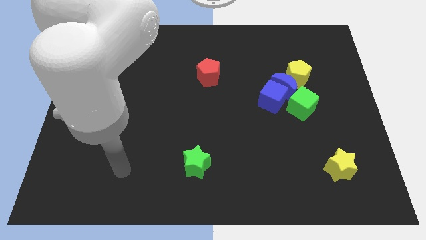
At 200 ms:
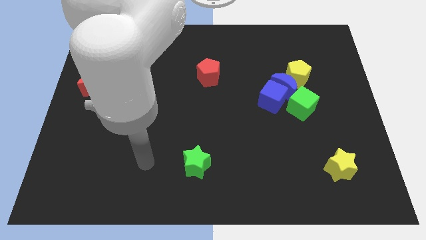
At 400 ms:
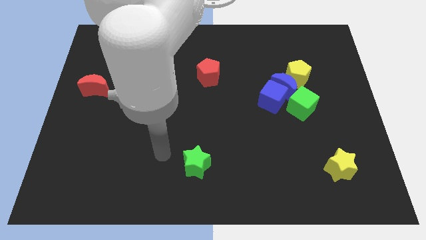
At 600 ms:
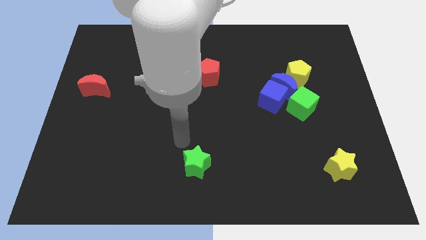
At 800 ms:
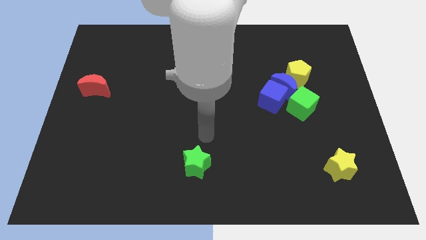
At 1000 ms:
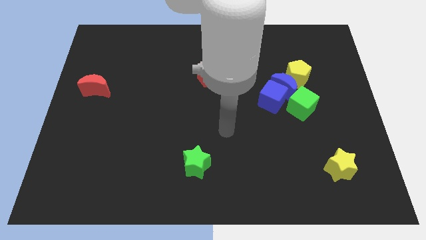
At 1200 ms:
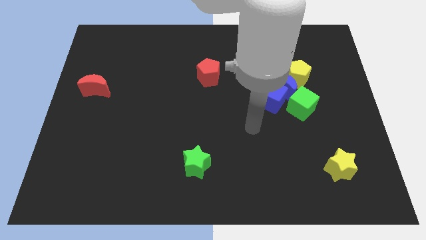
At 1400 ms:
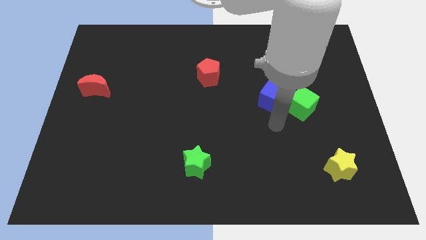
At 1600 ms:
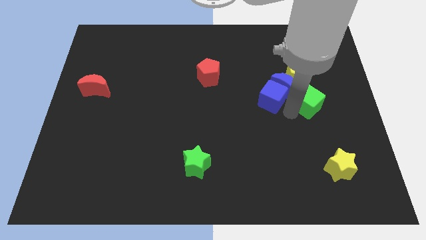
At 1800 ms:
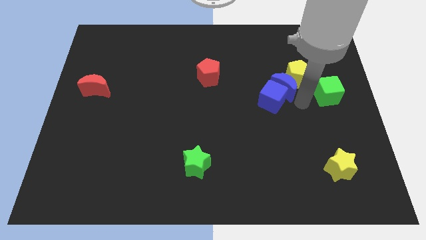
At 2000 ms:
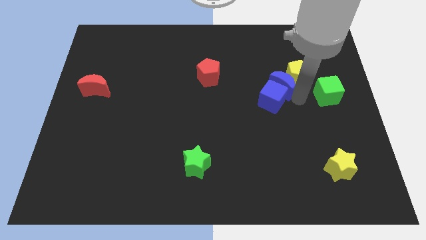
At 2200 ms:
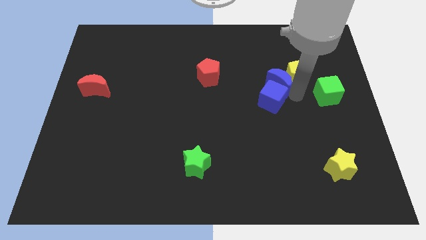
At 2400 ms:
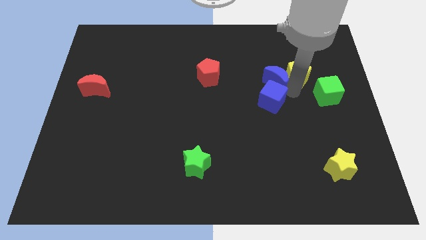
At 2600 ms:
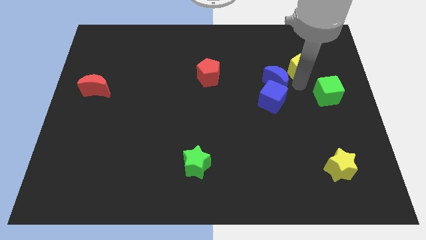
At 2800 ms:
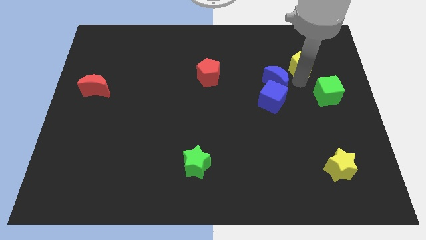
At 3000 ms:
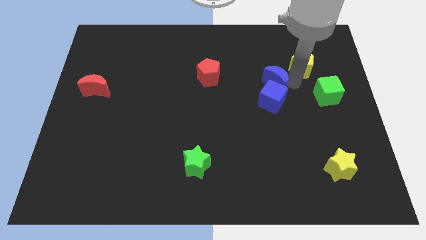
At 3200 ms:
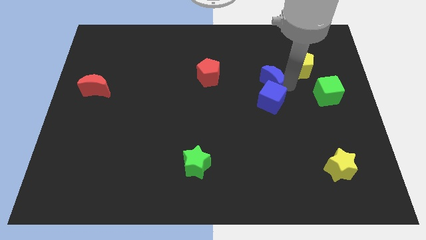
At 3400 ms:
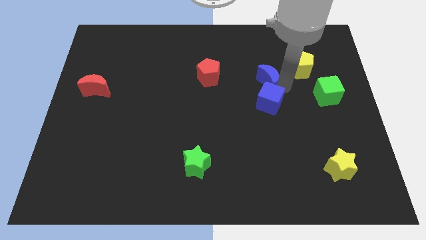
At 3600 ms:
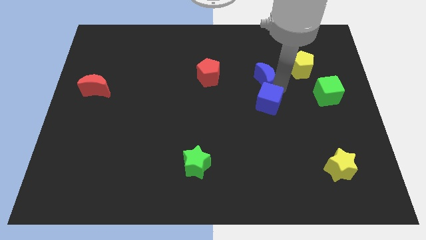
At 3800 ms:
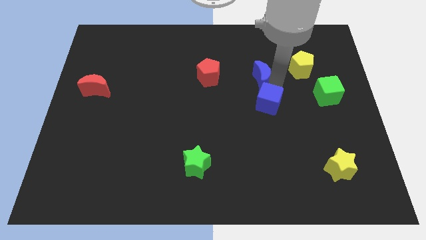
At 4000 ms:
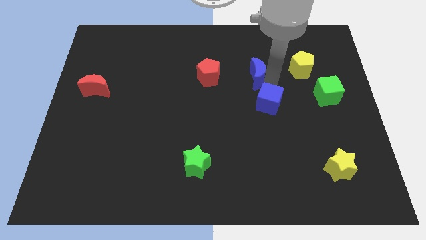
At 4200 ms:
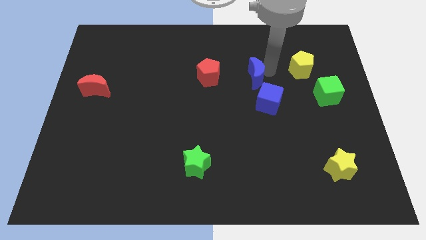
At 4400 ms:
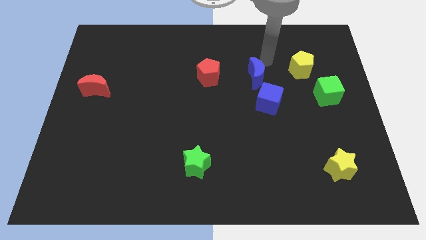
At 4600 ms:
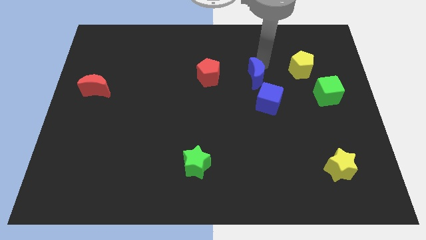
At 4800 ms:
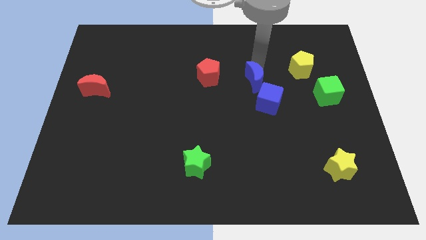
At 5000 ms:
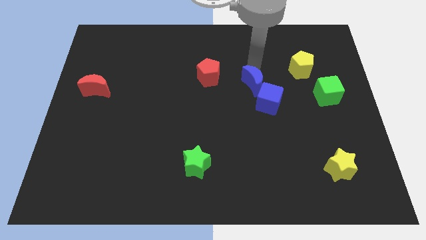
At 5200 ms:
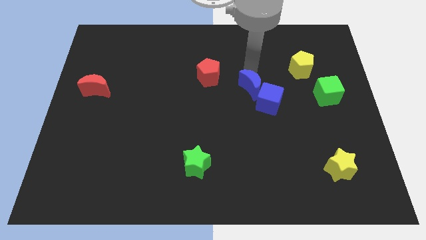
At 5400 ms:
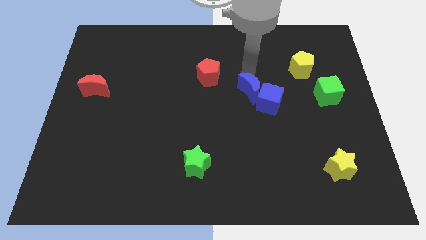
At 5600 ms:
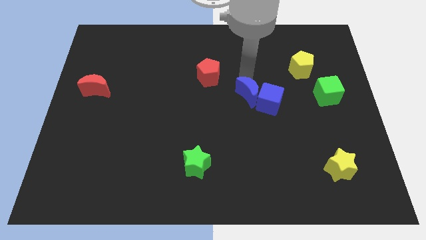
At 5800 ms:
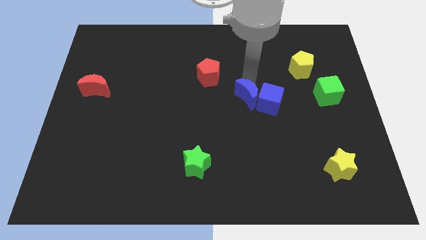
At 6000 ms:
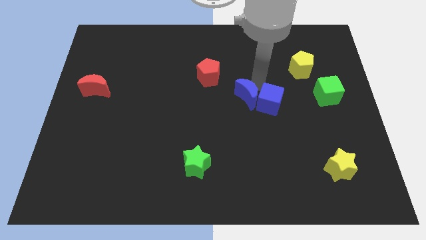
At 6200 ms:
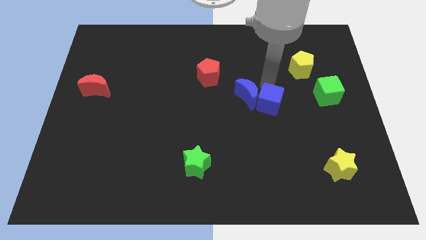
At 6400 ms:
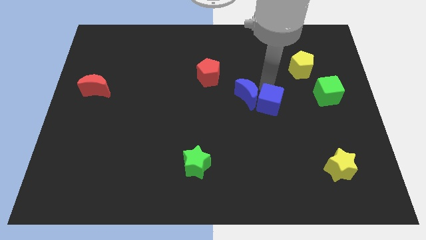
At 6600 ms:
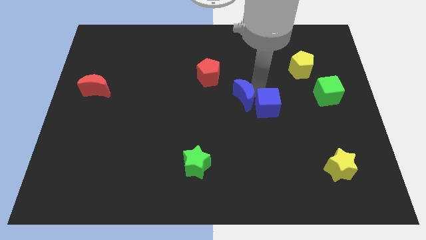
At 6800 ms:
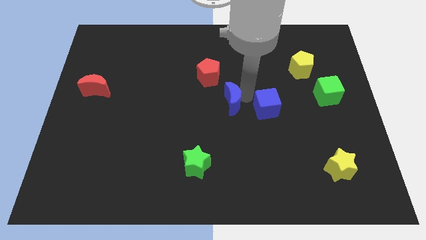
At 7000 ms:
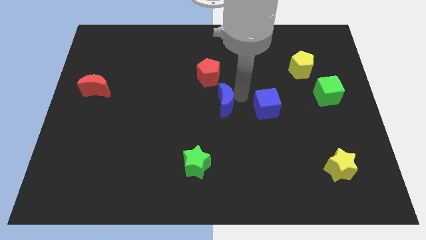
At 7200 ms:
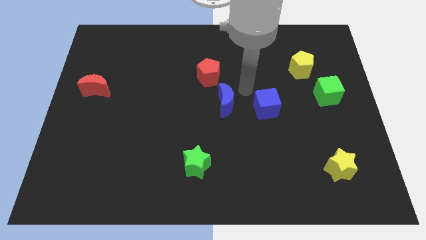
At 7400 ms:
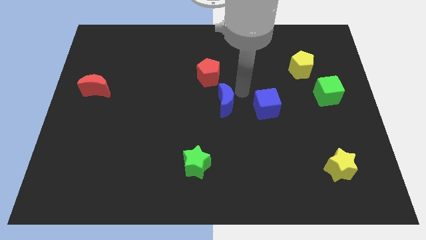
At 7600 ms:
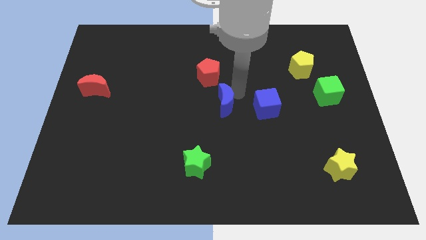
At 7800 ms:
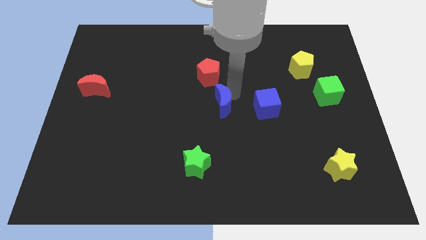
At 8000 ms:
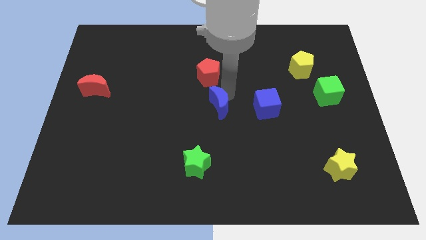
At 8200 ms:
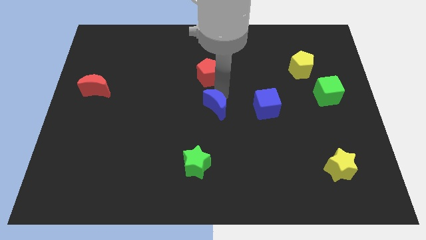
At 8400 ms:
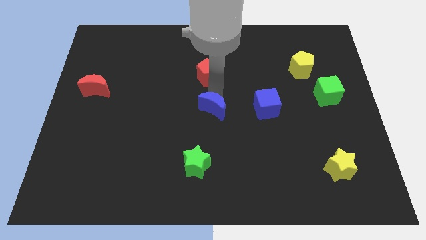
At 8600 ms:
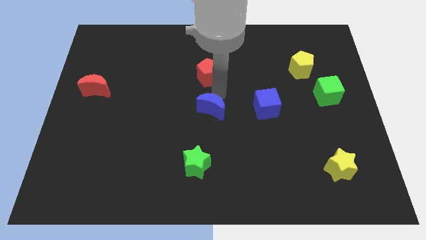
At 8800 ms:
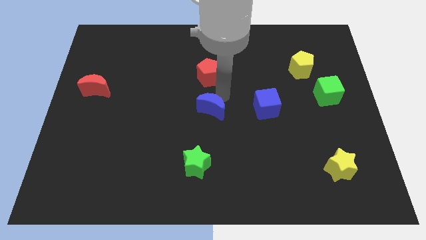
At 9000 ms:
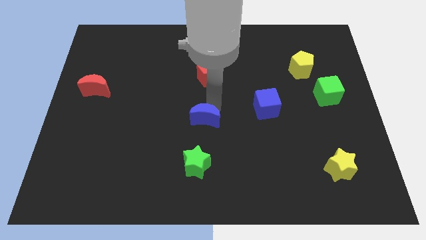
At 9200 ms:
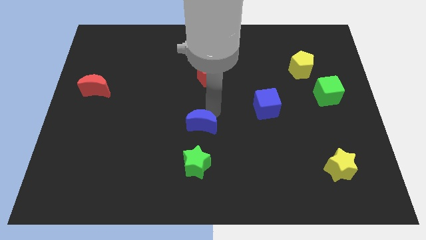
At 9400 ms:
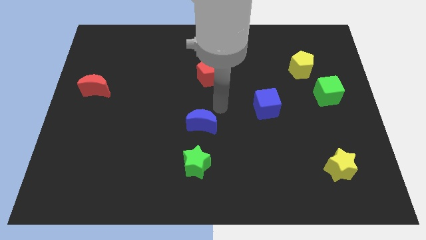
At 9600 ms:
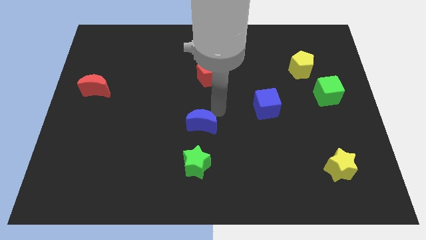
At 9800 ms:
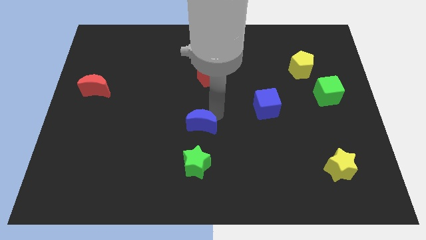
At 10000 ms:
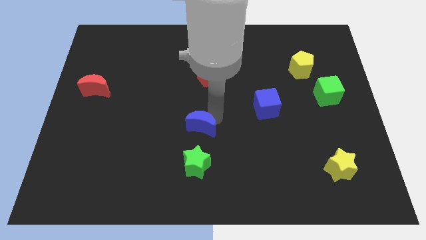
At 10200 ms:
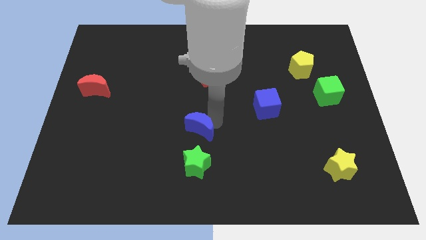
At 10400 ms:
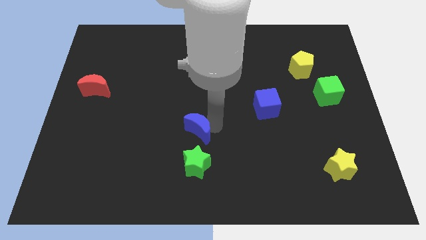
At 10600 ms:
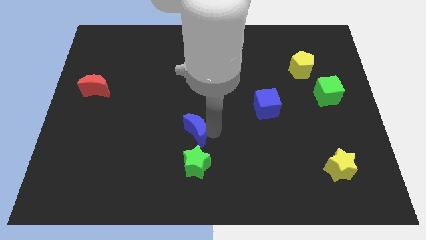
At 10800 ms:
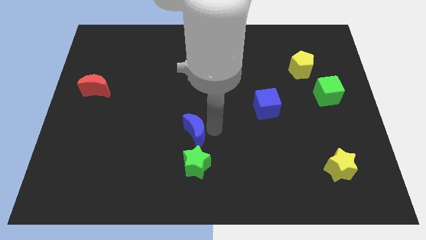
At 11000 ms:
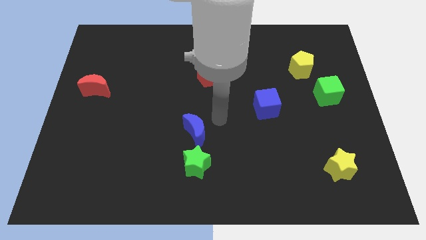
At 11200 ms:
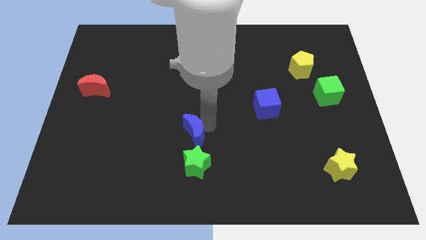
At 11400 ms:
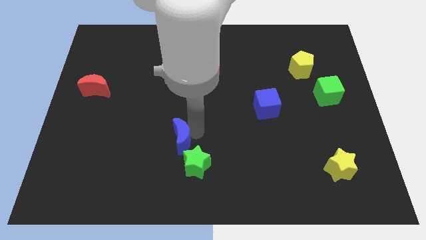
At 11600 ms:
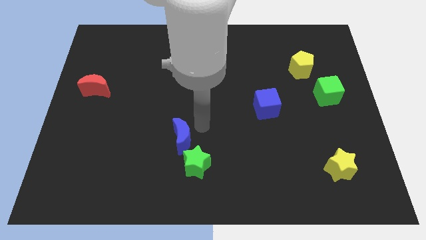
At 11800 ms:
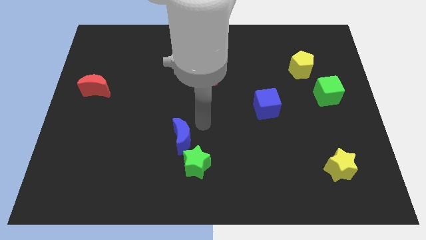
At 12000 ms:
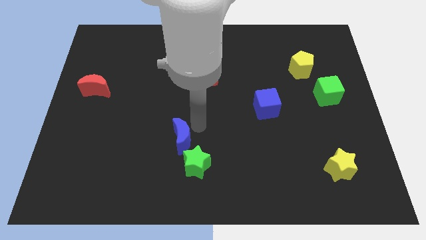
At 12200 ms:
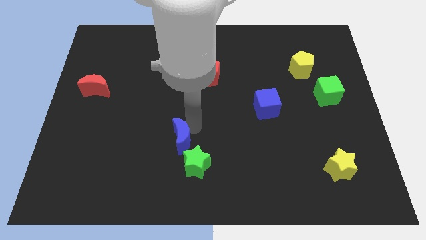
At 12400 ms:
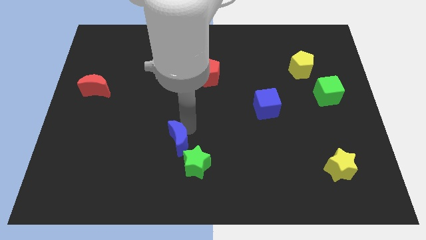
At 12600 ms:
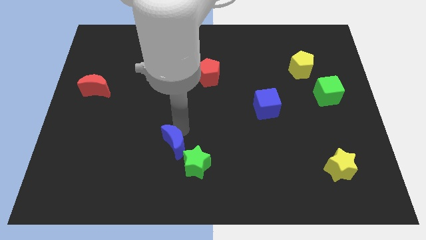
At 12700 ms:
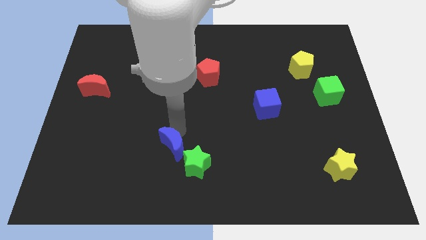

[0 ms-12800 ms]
push the blue moon just left of the green star

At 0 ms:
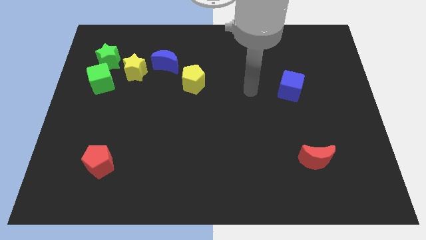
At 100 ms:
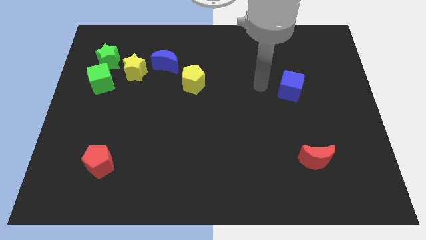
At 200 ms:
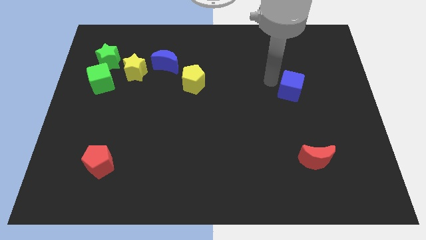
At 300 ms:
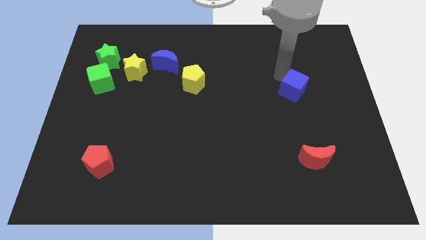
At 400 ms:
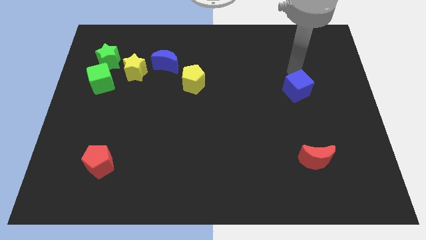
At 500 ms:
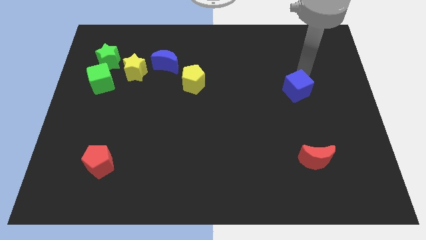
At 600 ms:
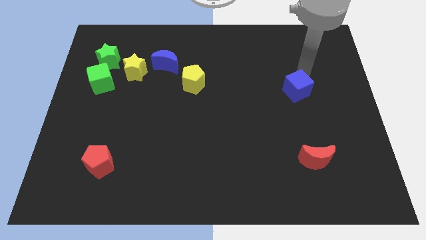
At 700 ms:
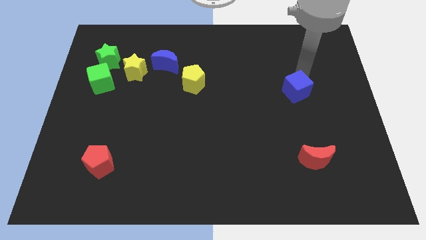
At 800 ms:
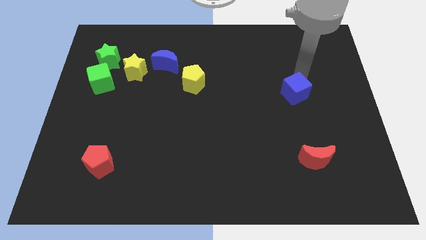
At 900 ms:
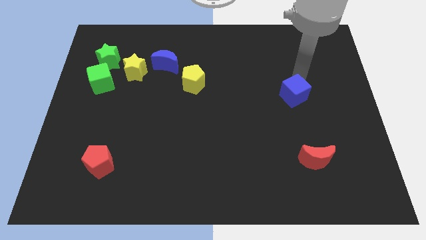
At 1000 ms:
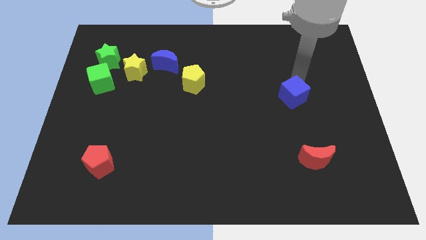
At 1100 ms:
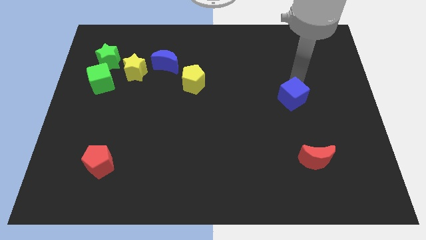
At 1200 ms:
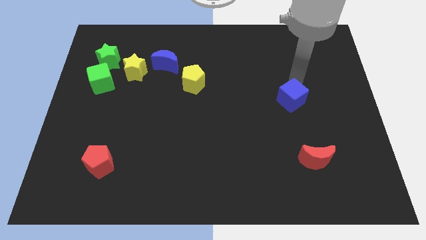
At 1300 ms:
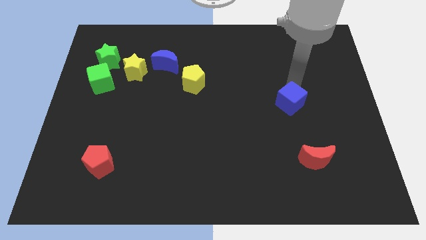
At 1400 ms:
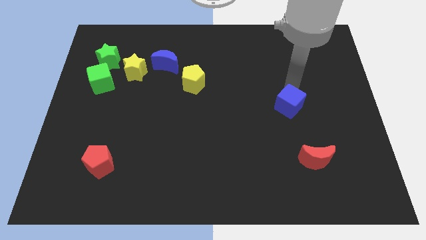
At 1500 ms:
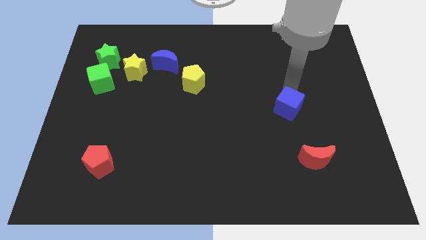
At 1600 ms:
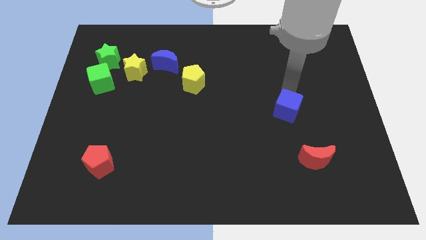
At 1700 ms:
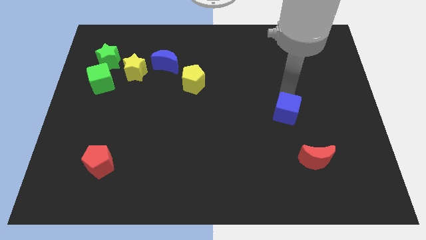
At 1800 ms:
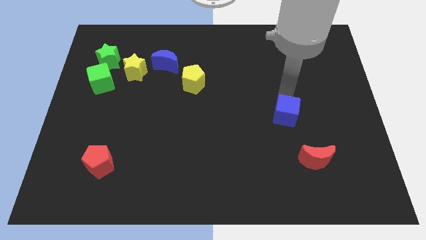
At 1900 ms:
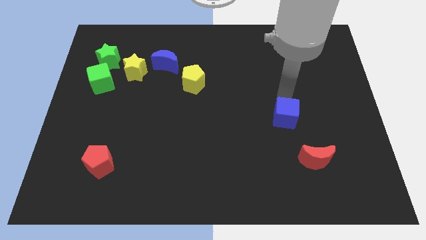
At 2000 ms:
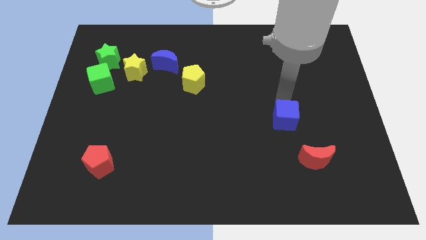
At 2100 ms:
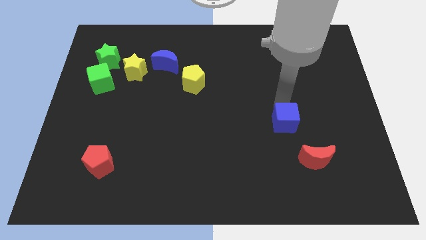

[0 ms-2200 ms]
move the blue cube diagonally up and to the left of the red moon
